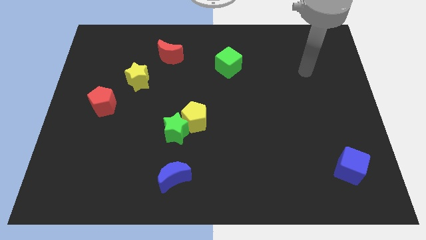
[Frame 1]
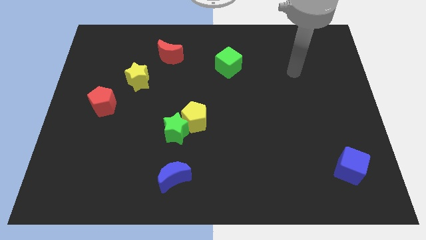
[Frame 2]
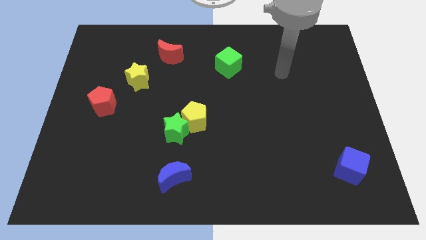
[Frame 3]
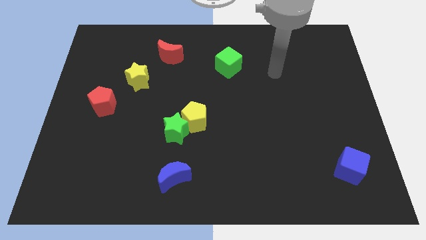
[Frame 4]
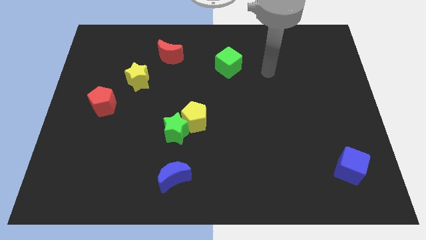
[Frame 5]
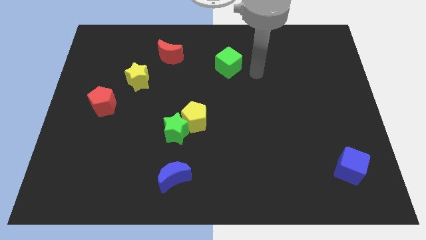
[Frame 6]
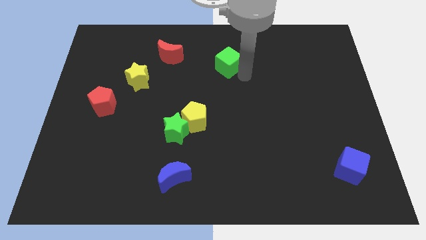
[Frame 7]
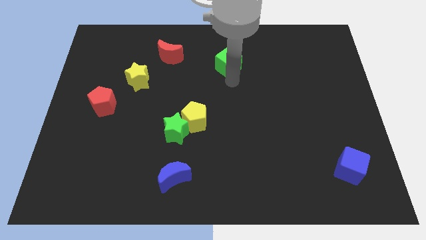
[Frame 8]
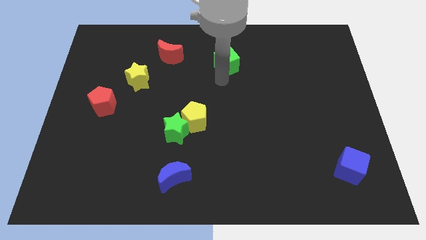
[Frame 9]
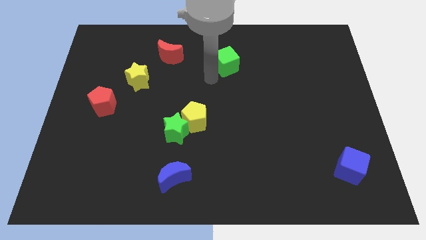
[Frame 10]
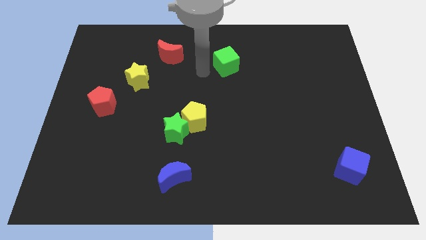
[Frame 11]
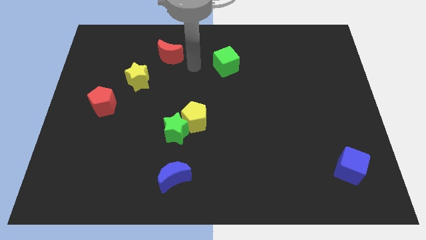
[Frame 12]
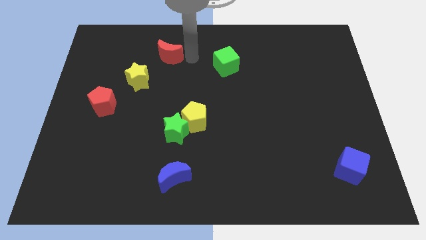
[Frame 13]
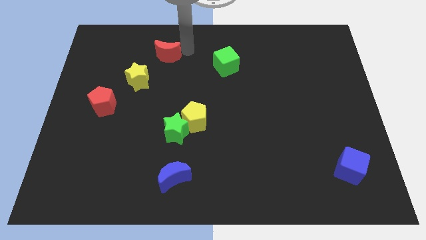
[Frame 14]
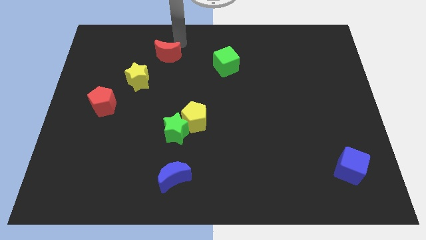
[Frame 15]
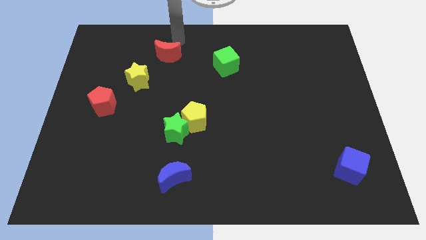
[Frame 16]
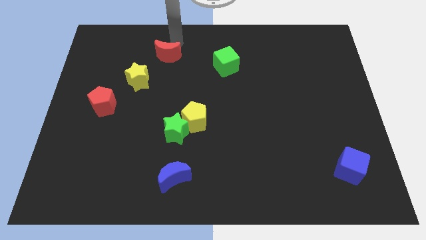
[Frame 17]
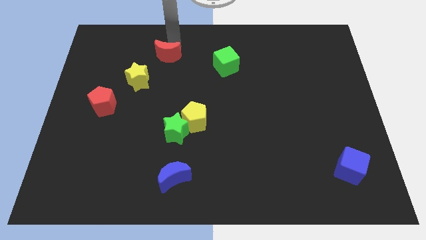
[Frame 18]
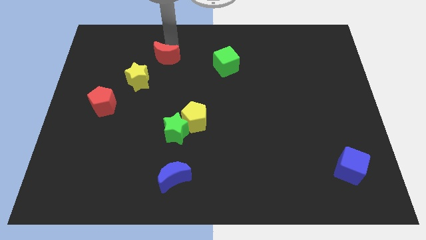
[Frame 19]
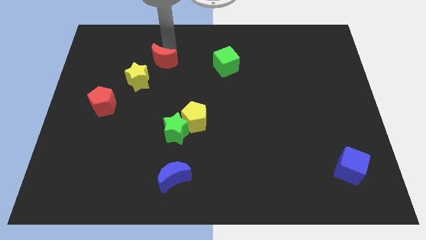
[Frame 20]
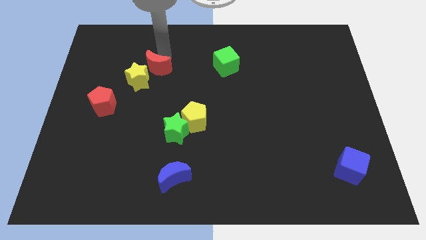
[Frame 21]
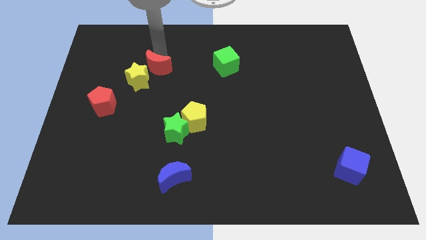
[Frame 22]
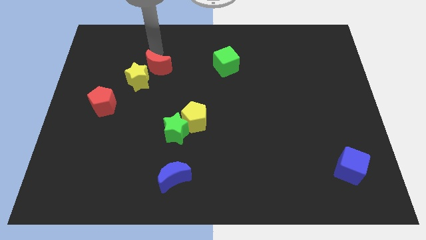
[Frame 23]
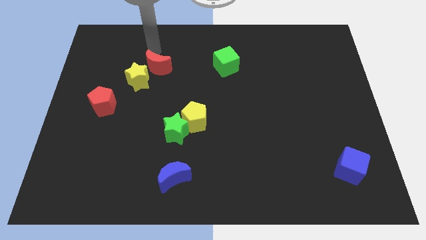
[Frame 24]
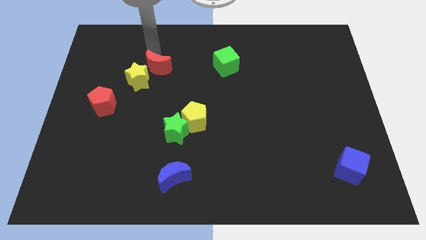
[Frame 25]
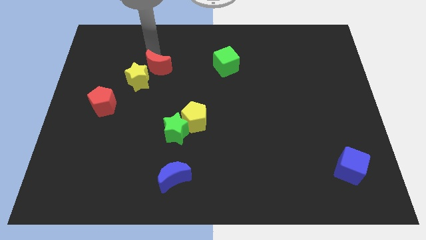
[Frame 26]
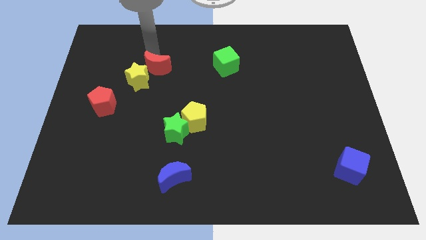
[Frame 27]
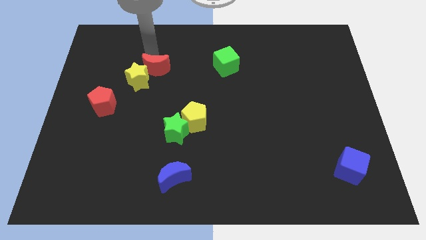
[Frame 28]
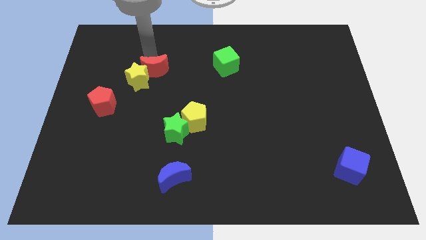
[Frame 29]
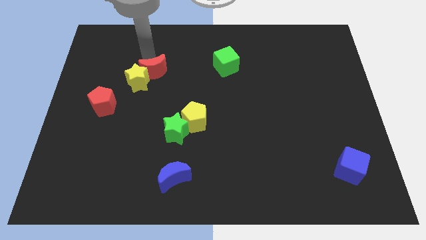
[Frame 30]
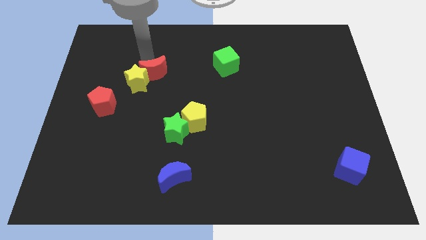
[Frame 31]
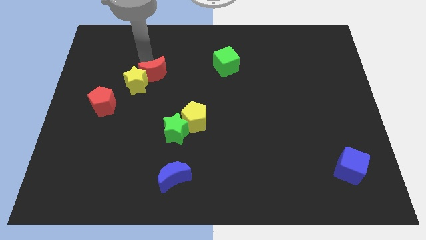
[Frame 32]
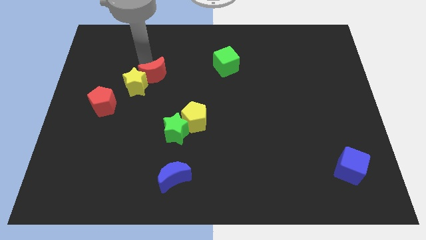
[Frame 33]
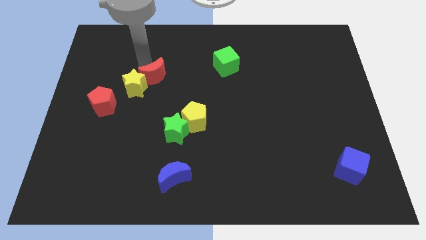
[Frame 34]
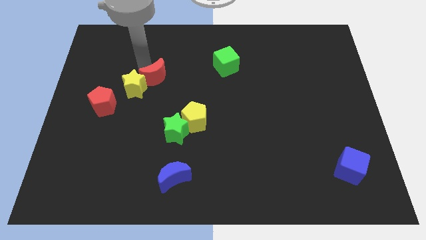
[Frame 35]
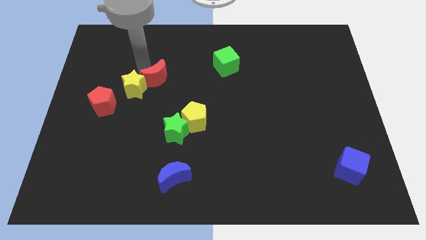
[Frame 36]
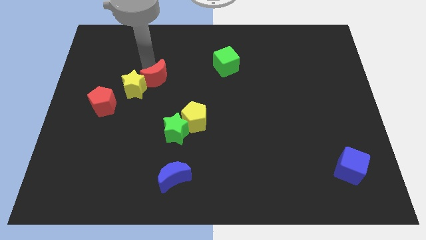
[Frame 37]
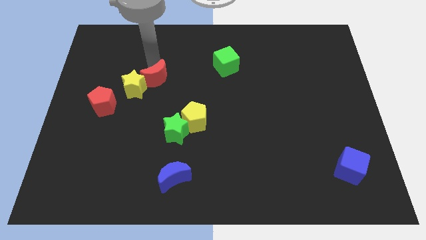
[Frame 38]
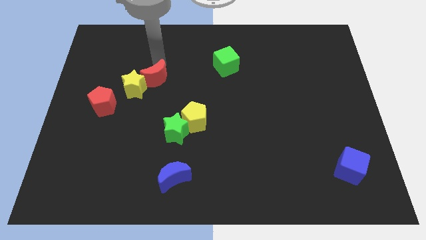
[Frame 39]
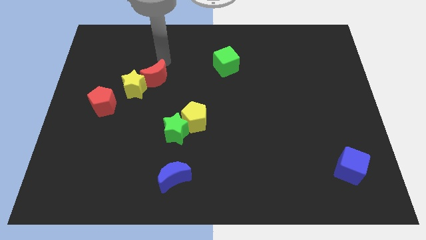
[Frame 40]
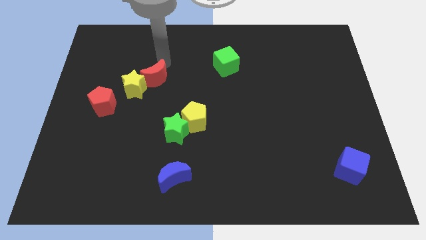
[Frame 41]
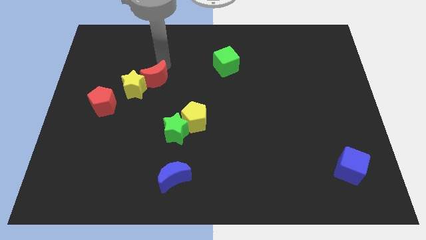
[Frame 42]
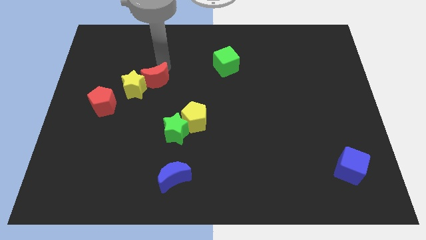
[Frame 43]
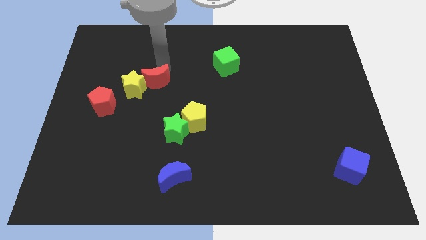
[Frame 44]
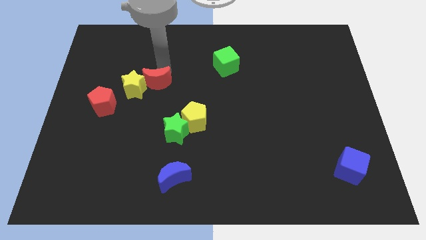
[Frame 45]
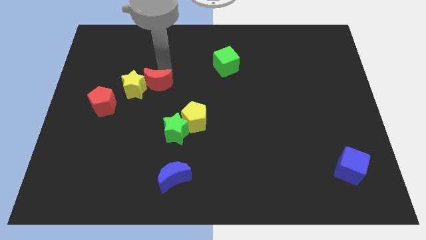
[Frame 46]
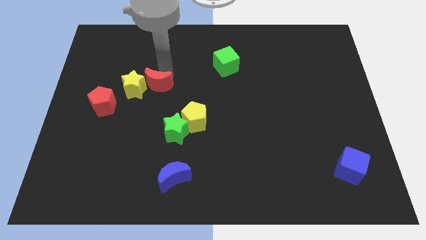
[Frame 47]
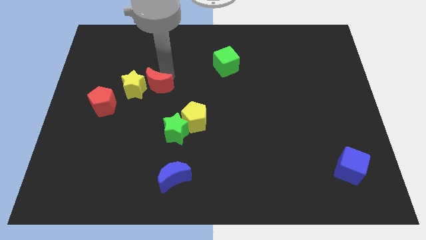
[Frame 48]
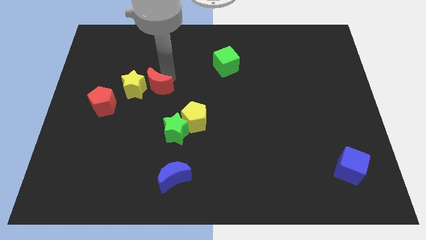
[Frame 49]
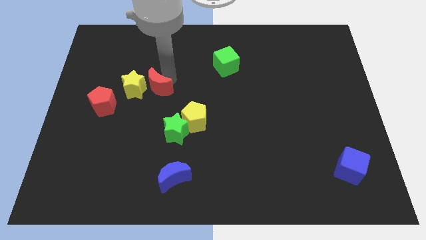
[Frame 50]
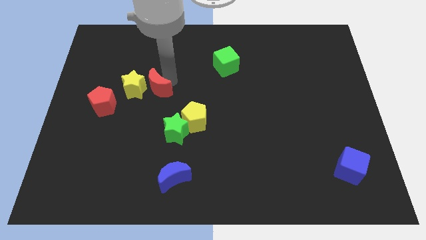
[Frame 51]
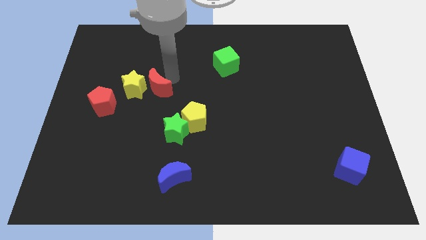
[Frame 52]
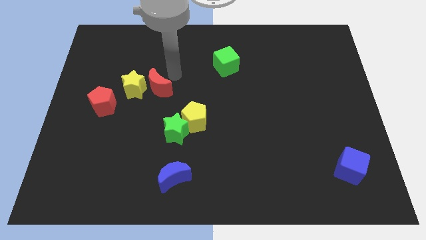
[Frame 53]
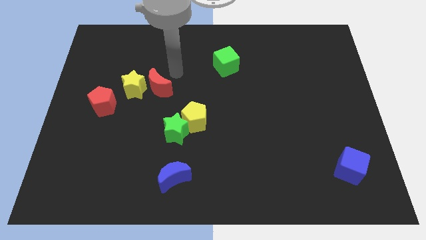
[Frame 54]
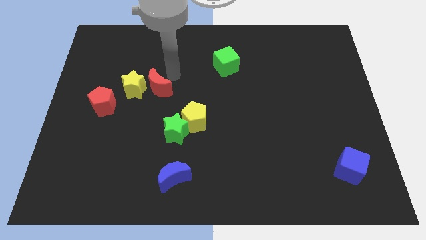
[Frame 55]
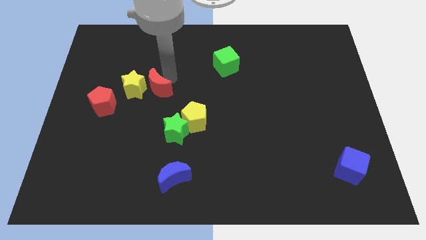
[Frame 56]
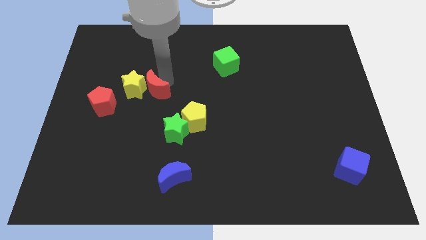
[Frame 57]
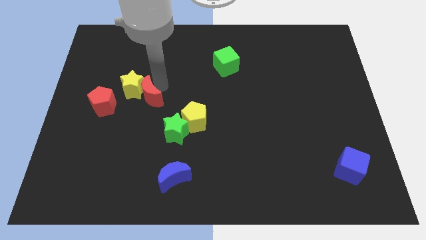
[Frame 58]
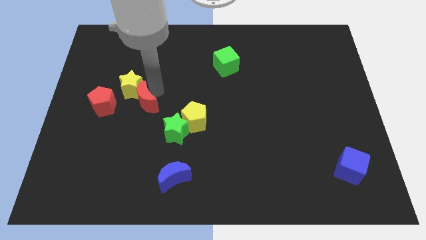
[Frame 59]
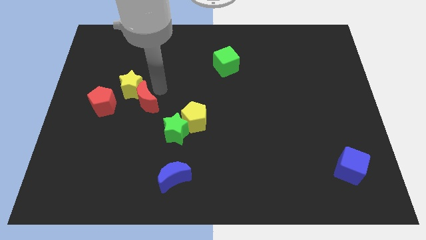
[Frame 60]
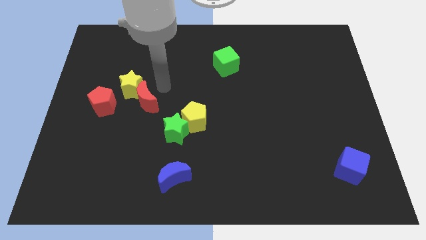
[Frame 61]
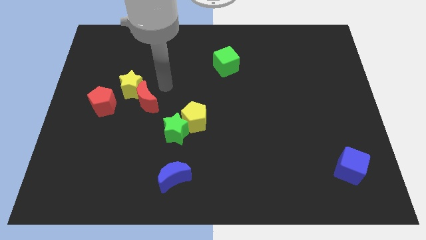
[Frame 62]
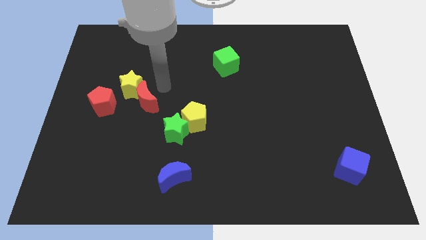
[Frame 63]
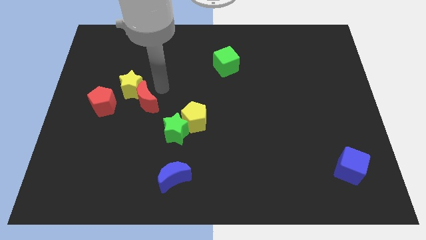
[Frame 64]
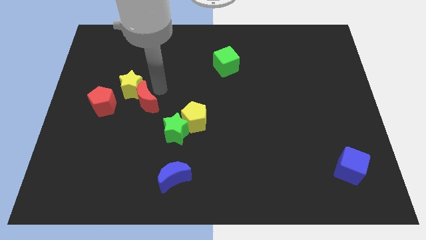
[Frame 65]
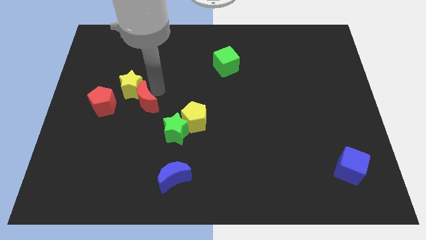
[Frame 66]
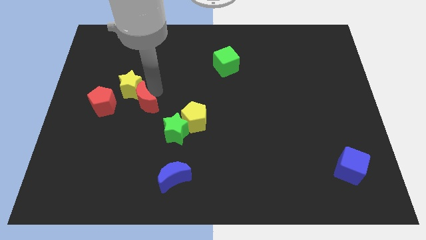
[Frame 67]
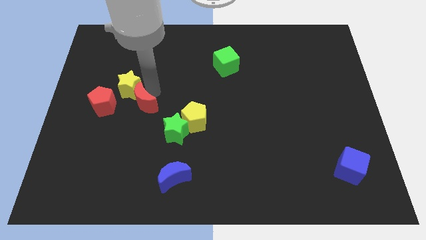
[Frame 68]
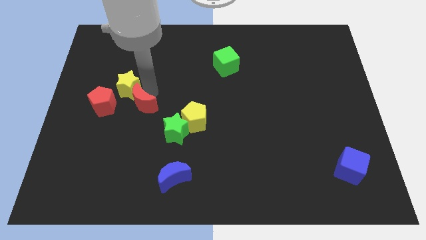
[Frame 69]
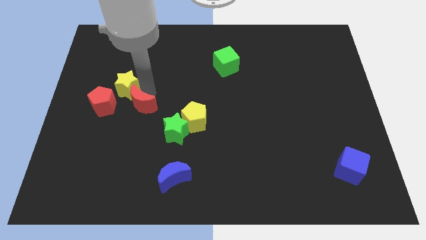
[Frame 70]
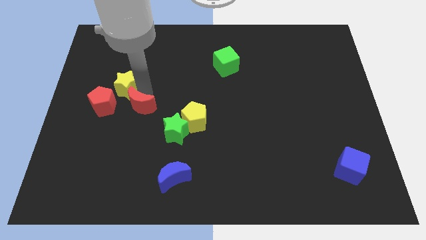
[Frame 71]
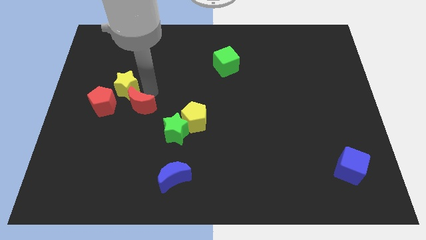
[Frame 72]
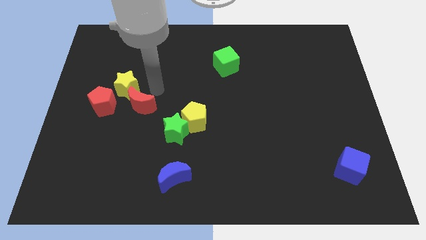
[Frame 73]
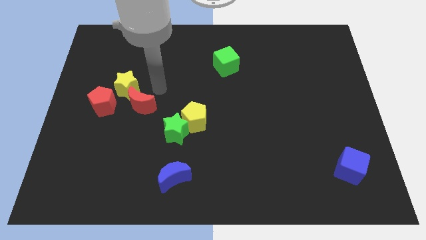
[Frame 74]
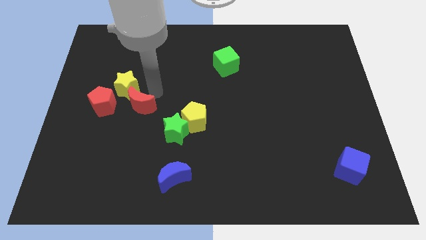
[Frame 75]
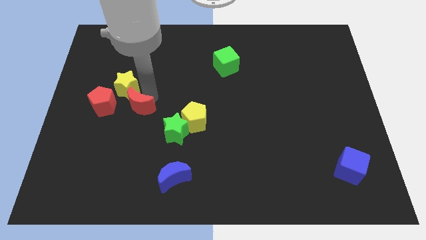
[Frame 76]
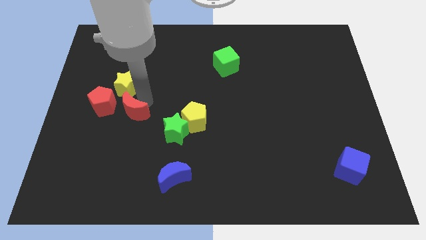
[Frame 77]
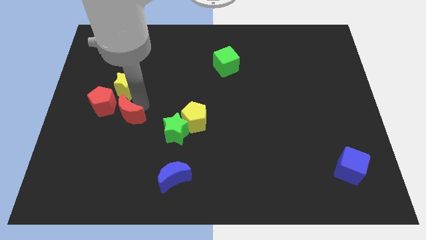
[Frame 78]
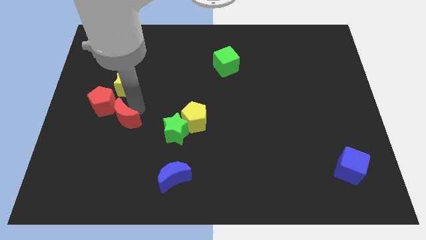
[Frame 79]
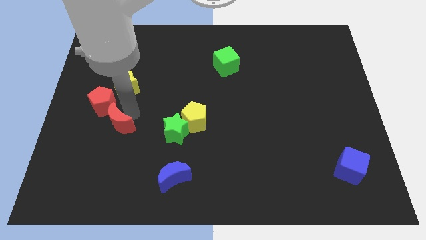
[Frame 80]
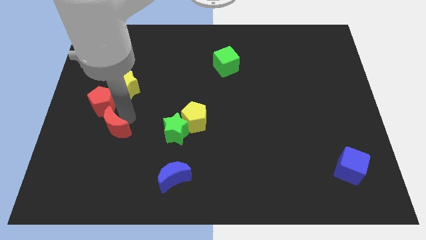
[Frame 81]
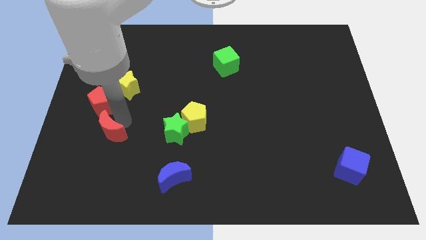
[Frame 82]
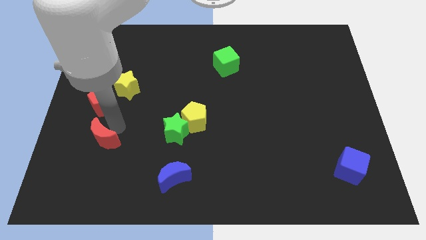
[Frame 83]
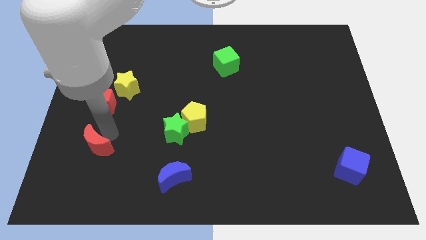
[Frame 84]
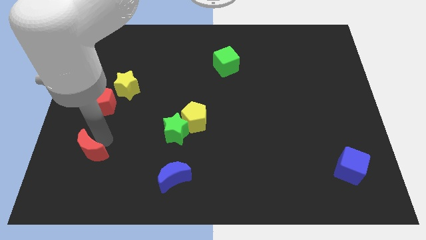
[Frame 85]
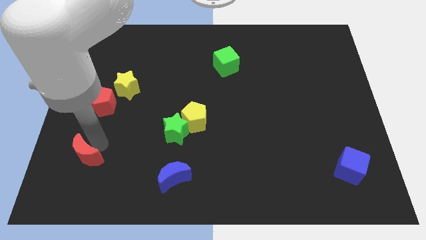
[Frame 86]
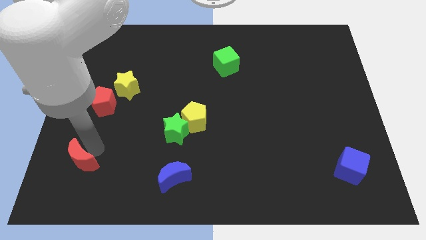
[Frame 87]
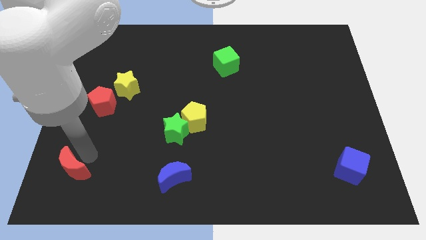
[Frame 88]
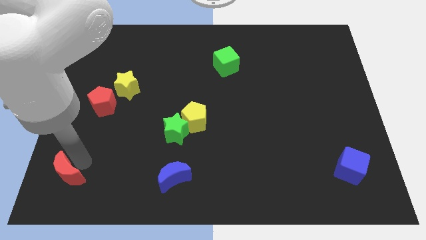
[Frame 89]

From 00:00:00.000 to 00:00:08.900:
put the red moon to the bottom left of the board
